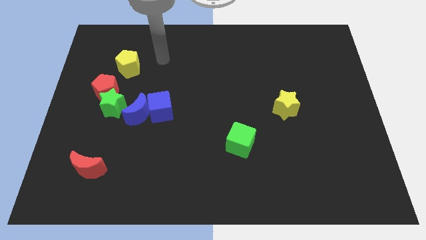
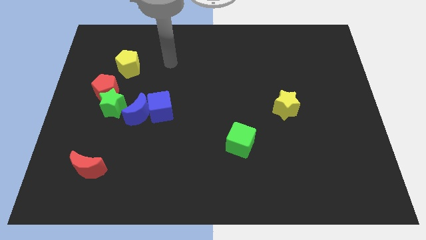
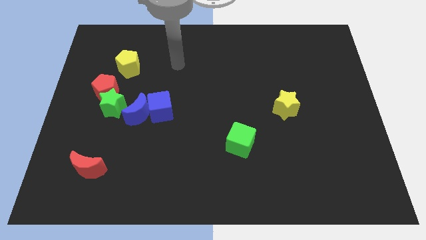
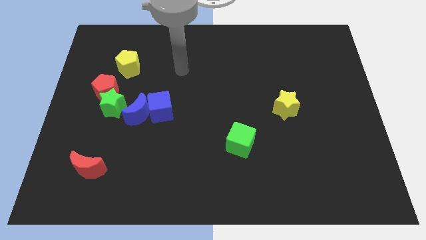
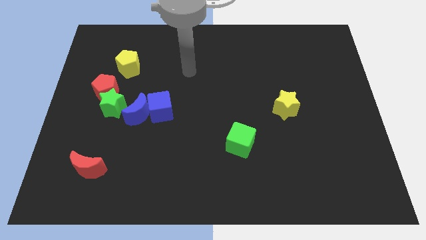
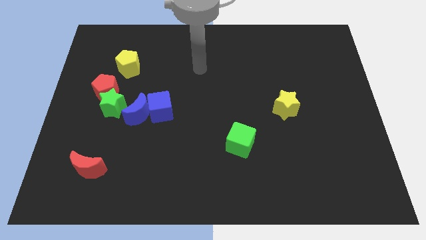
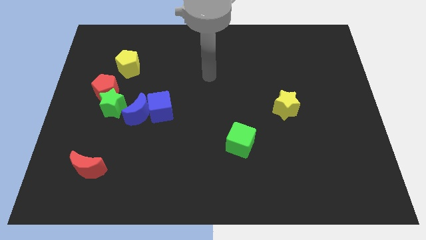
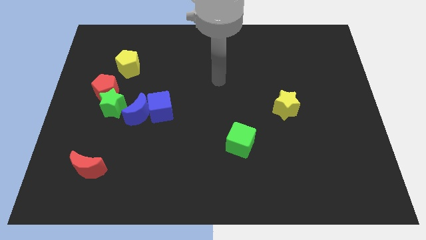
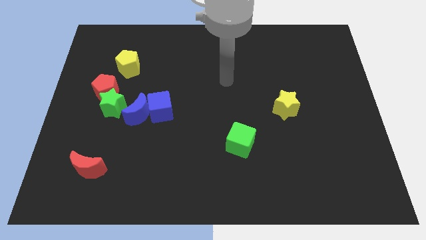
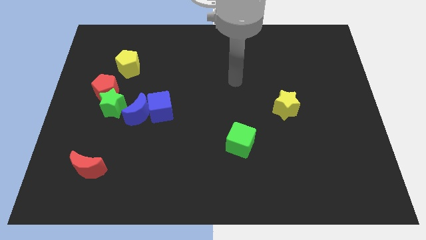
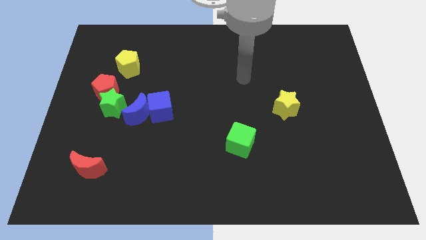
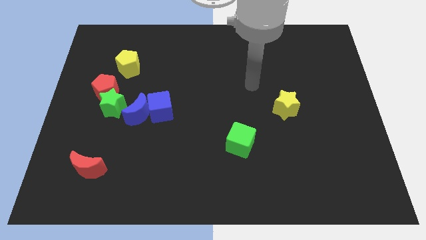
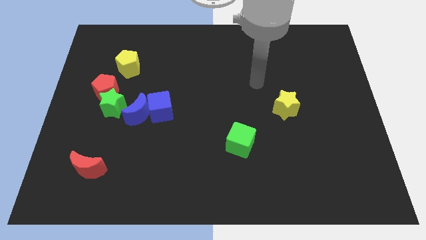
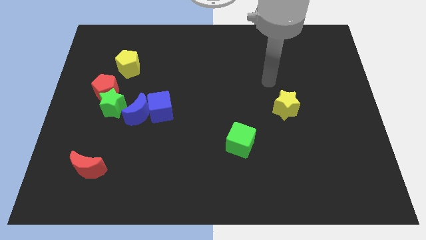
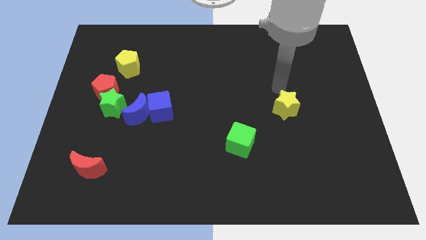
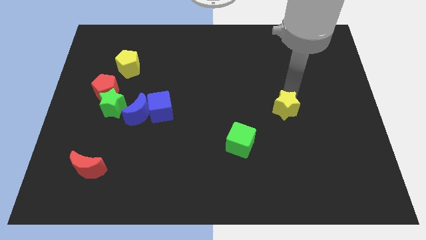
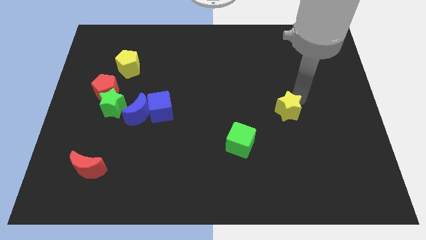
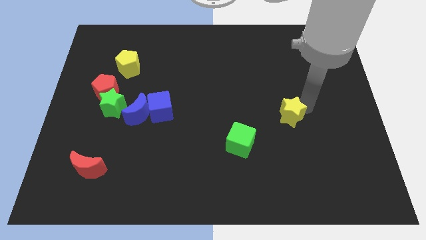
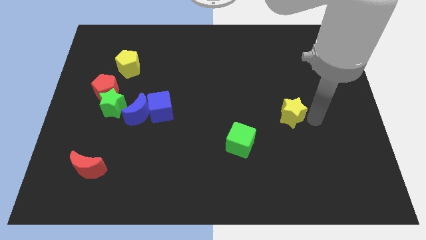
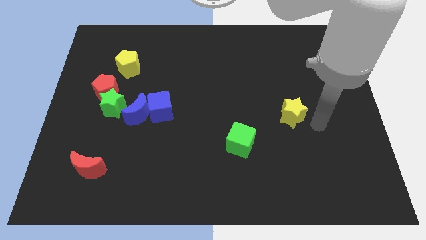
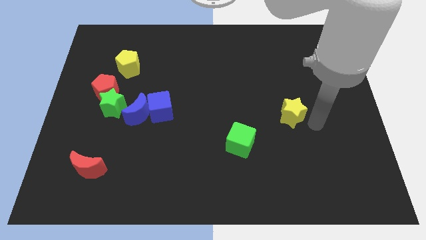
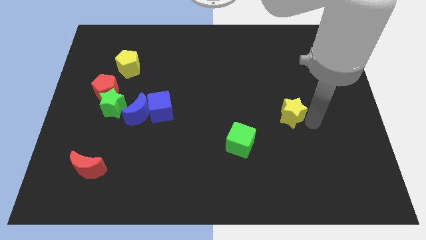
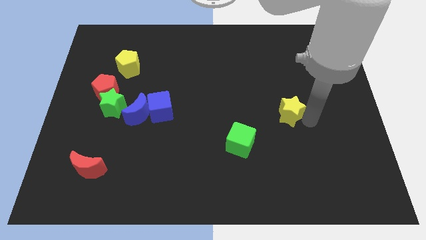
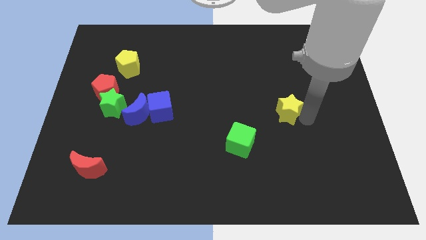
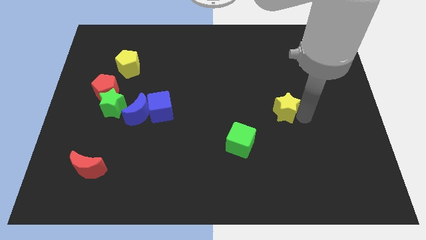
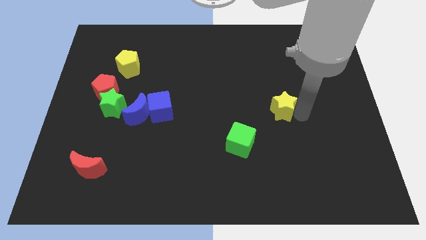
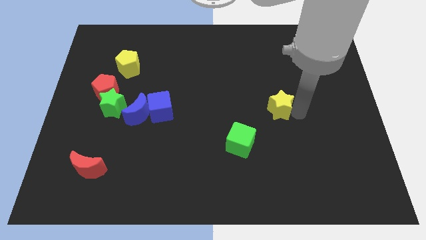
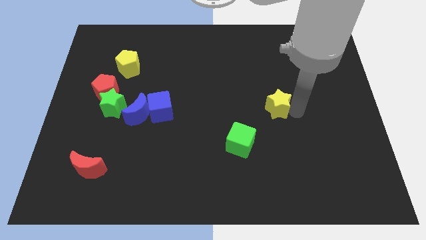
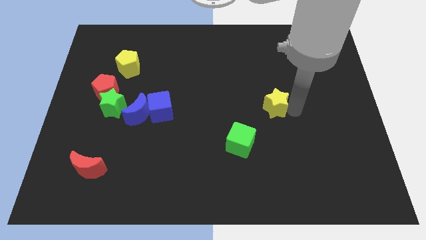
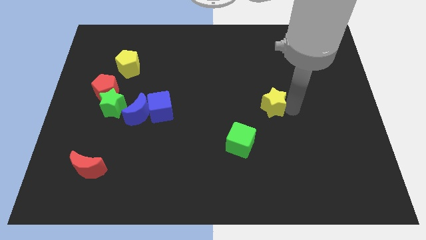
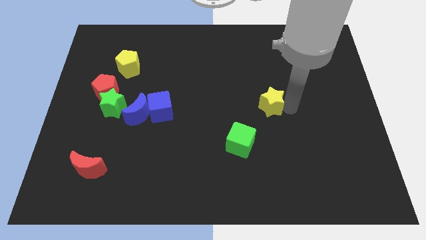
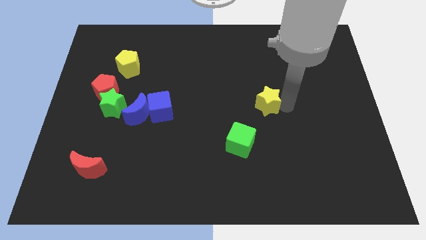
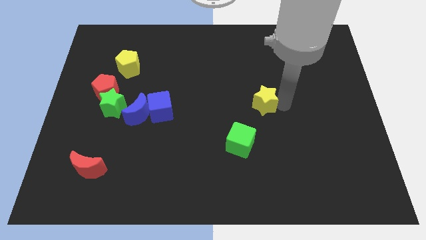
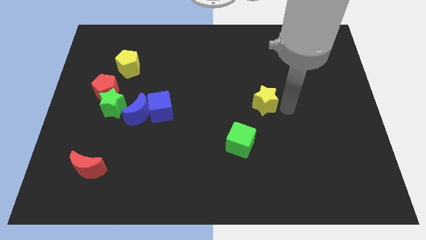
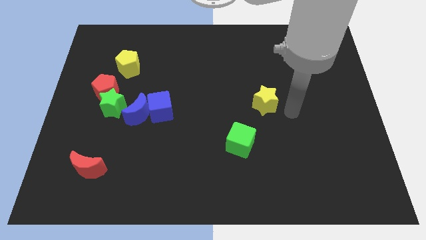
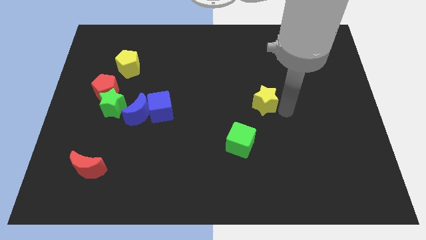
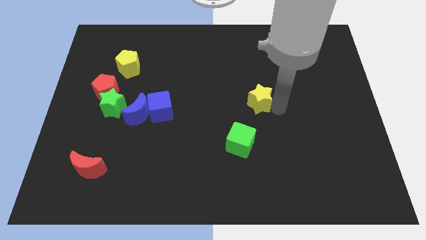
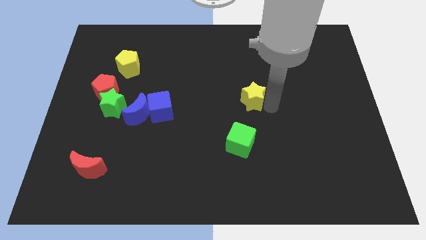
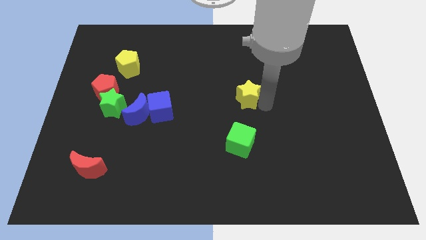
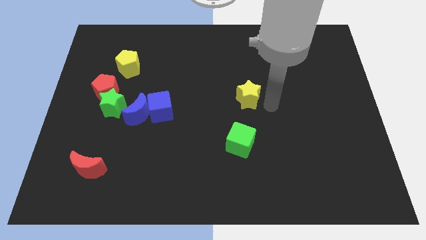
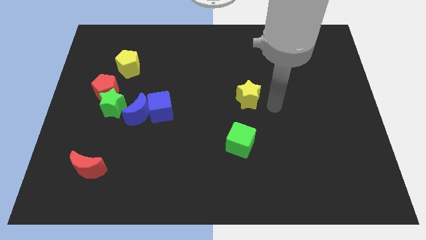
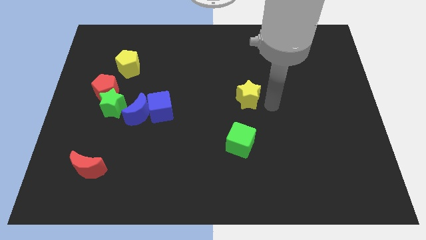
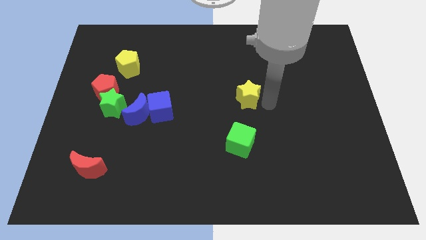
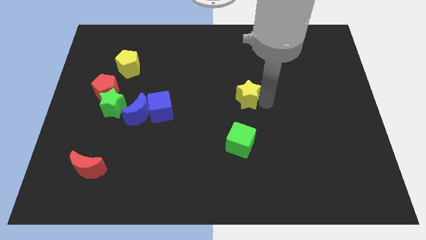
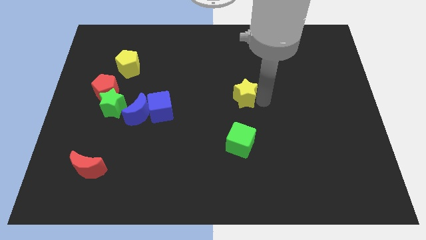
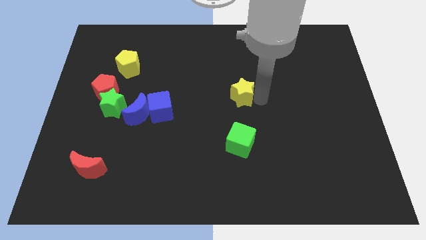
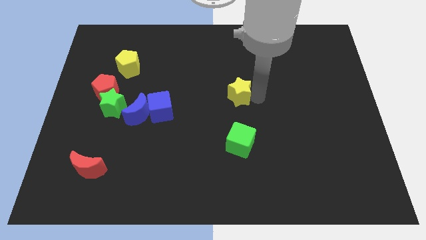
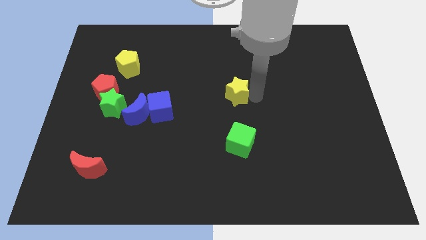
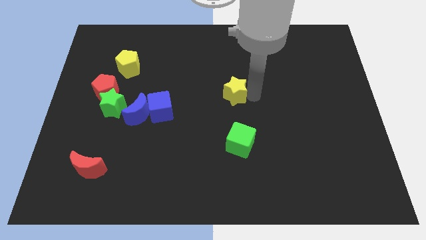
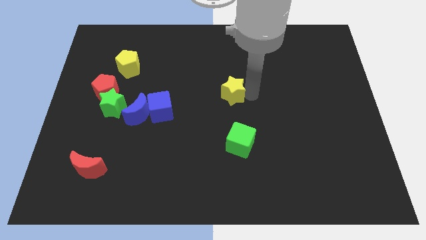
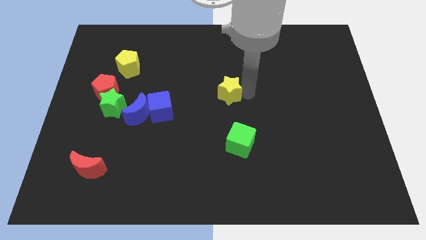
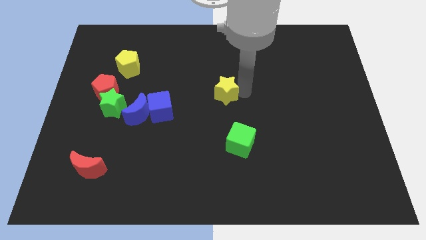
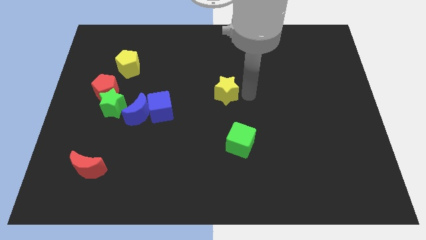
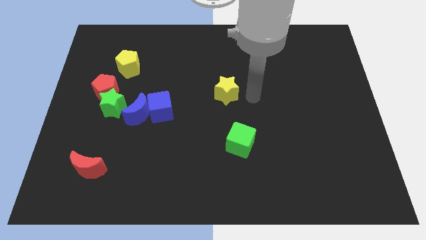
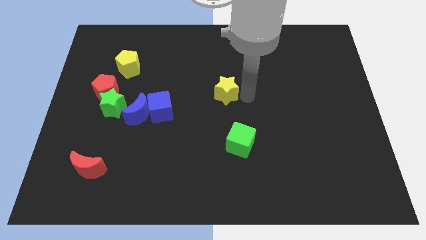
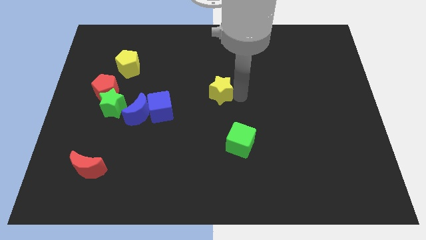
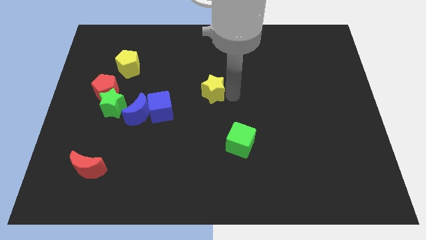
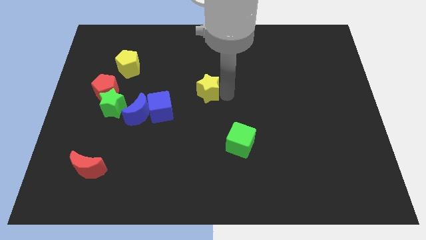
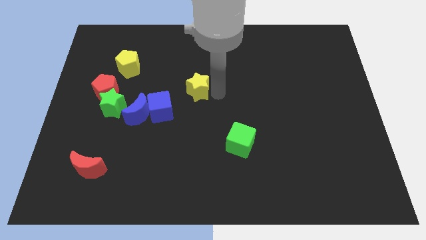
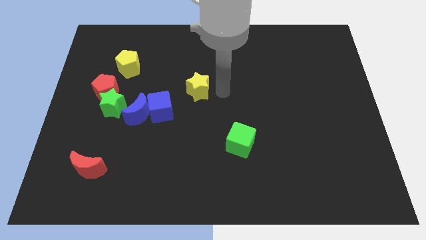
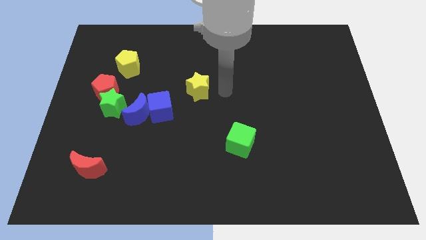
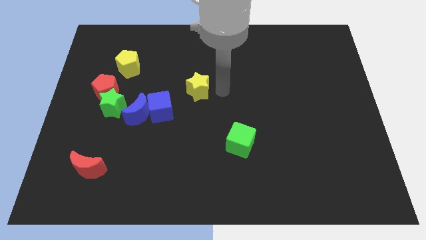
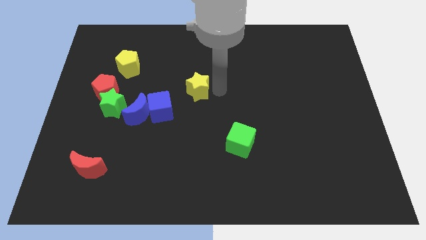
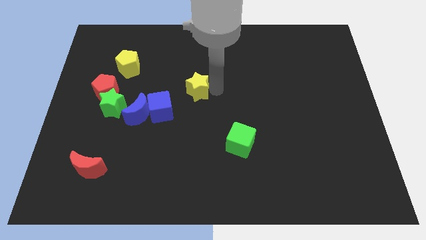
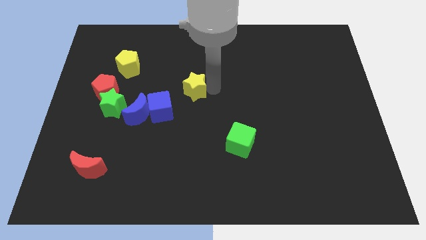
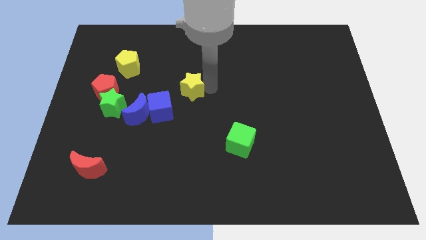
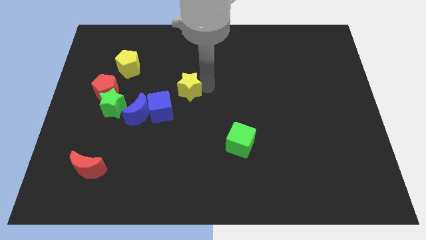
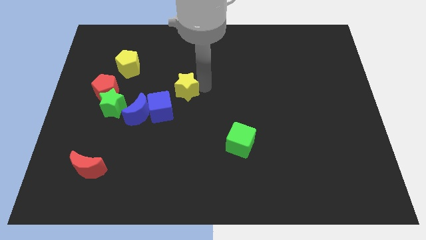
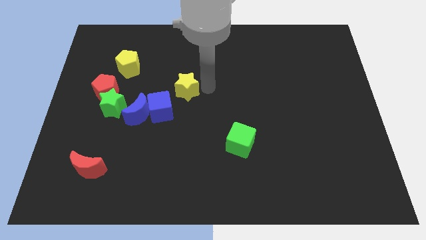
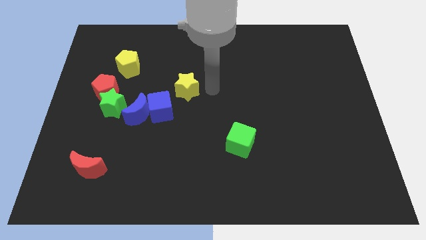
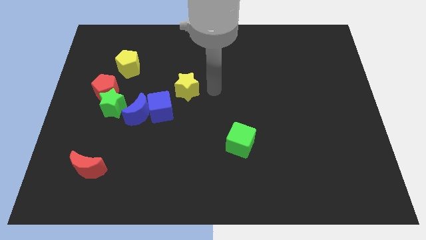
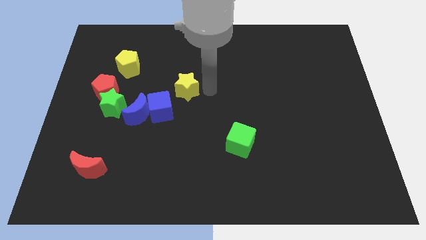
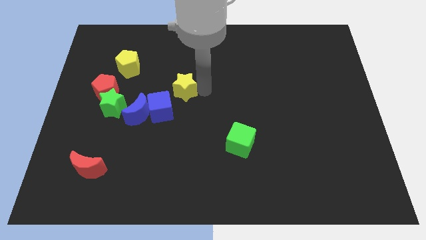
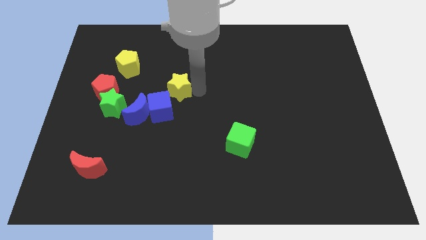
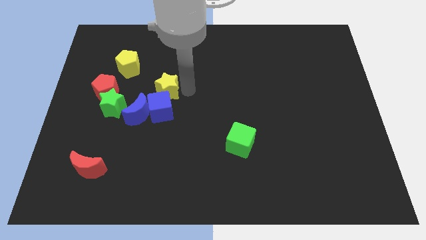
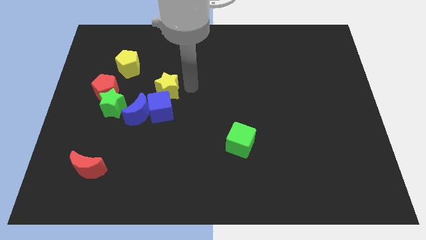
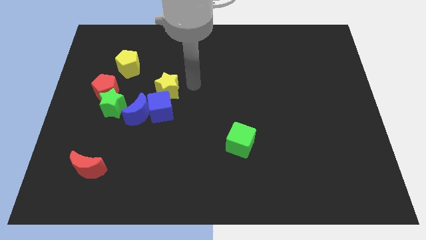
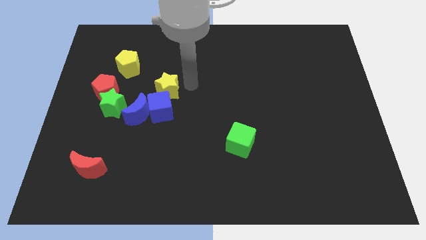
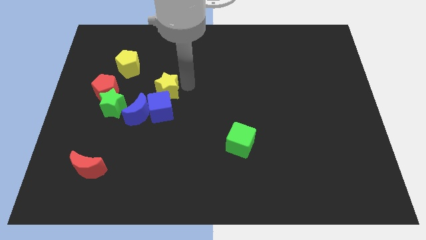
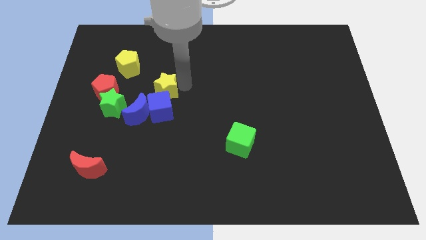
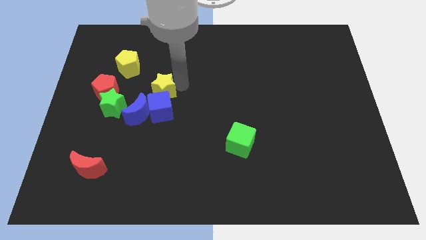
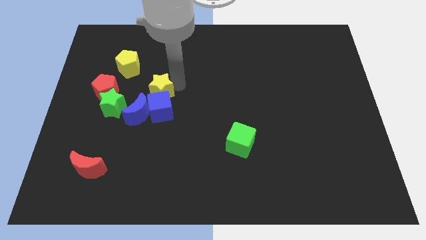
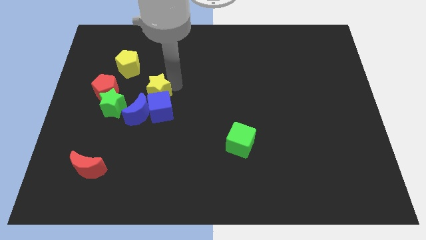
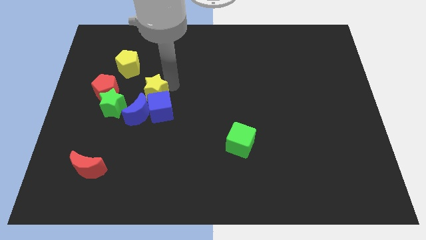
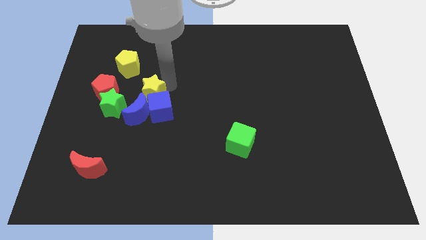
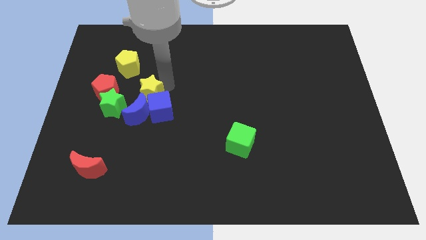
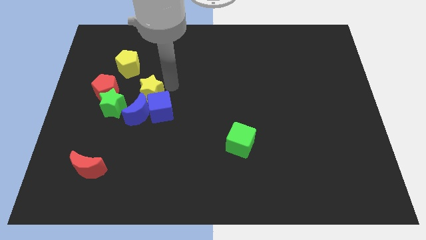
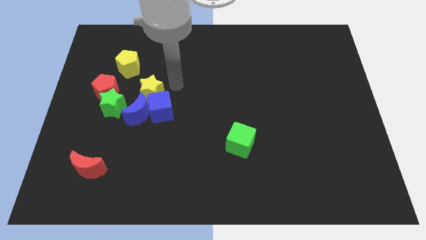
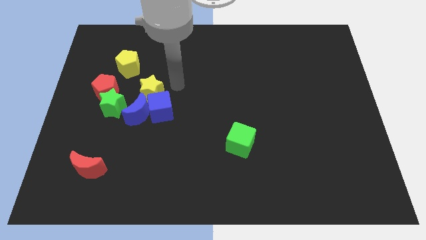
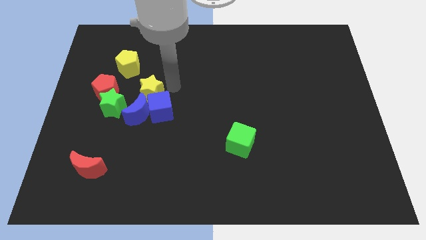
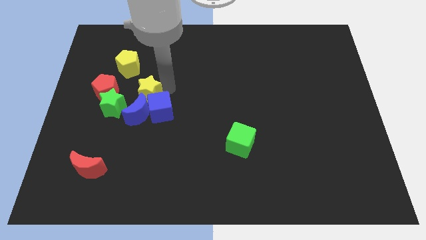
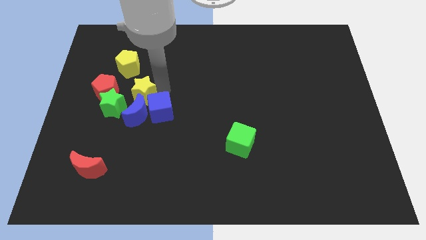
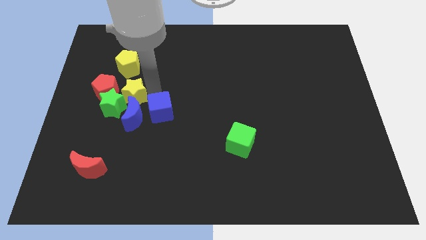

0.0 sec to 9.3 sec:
put the yellow star to the green star
